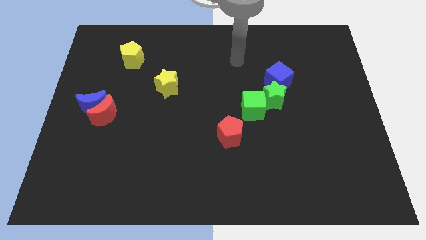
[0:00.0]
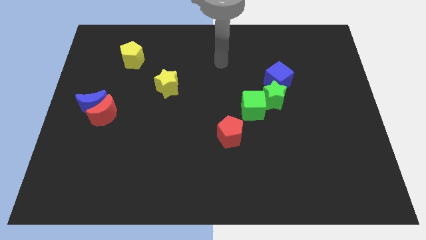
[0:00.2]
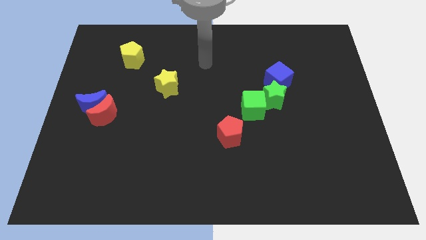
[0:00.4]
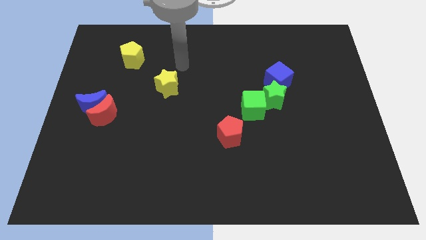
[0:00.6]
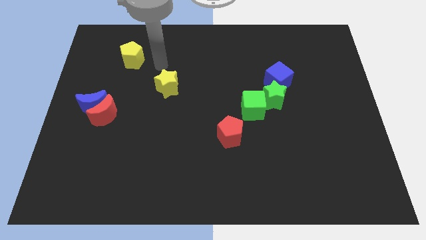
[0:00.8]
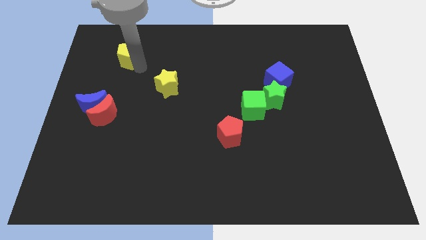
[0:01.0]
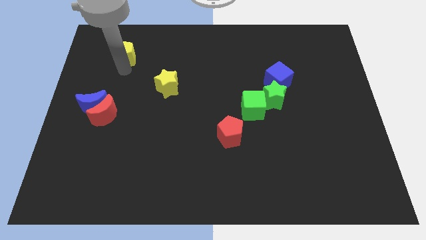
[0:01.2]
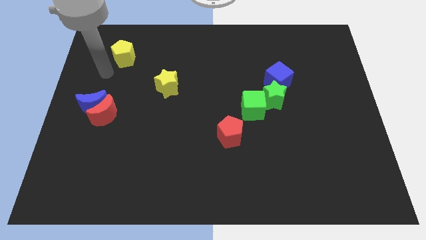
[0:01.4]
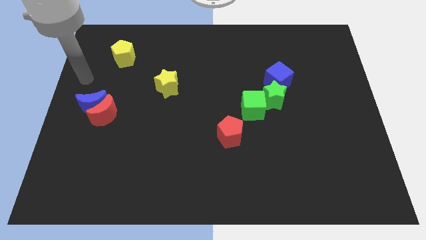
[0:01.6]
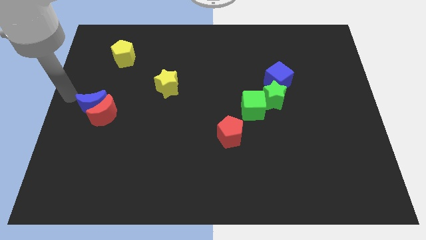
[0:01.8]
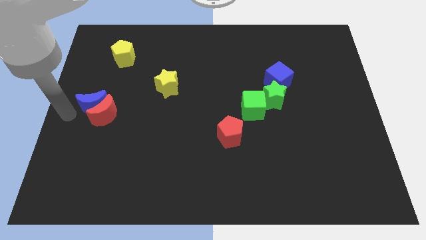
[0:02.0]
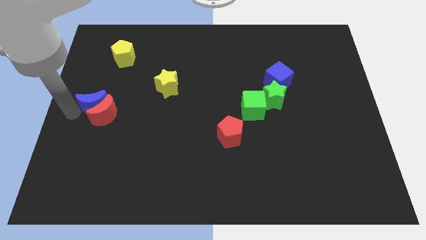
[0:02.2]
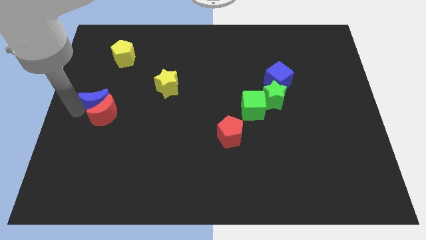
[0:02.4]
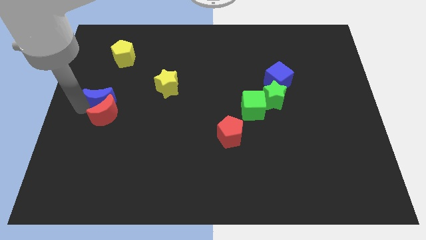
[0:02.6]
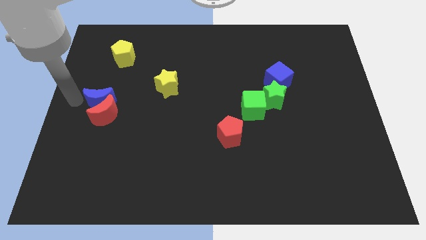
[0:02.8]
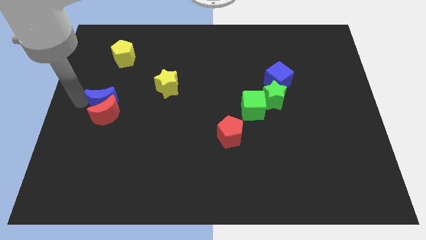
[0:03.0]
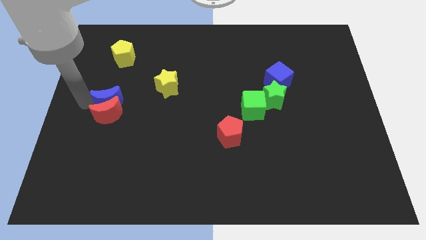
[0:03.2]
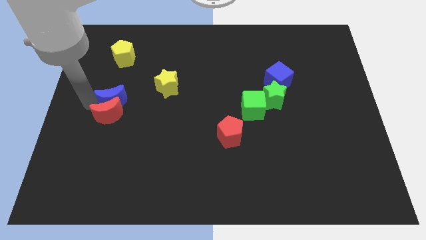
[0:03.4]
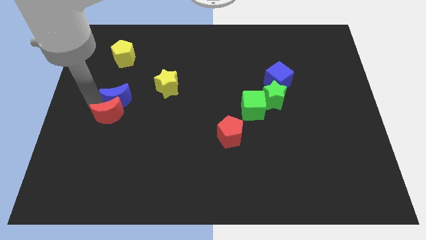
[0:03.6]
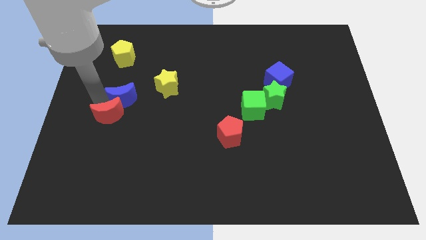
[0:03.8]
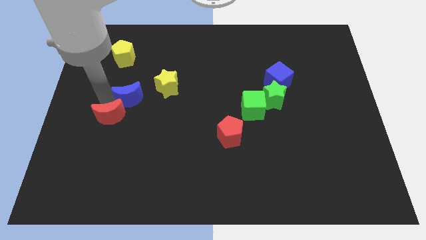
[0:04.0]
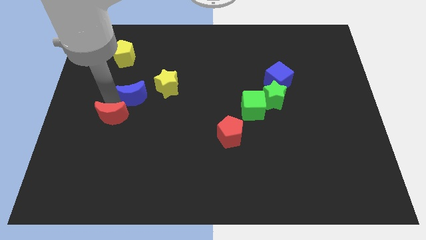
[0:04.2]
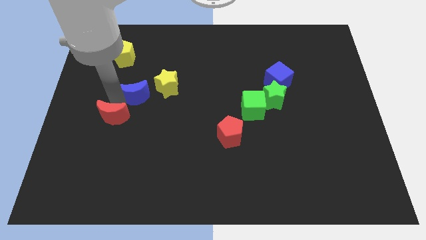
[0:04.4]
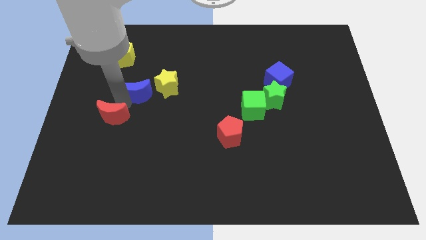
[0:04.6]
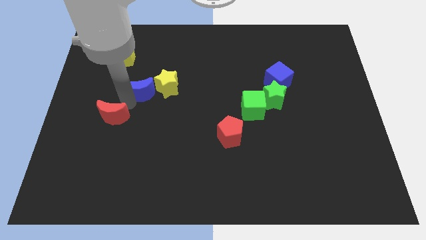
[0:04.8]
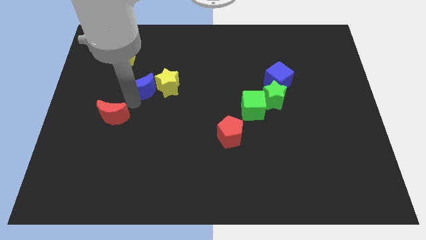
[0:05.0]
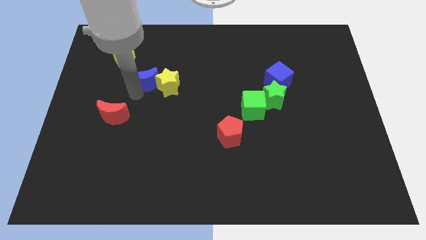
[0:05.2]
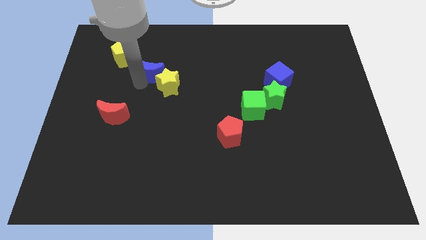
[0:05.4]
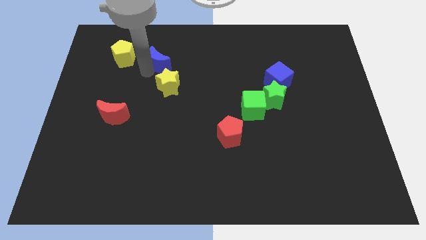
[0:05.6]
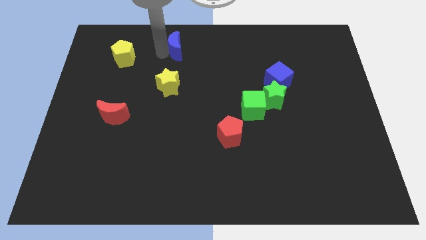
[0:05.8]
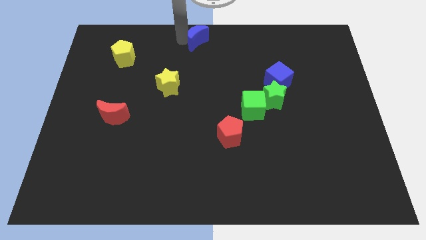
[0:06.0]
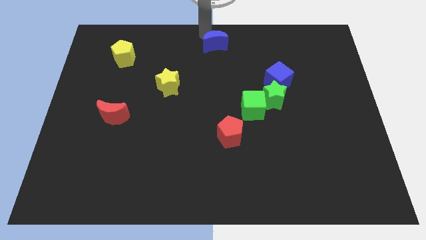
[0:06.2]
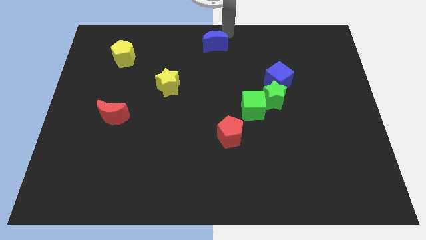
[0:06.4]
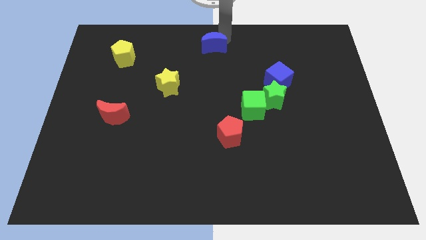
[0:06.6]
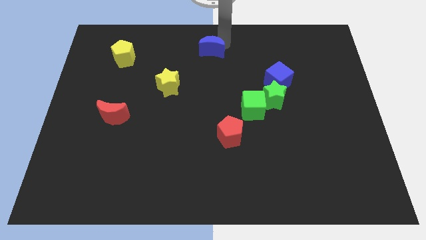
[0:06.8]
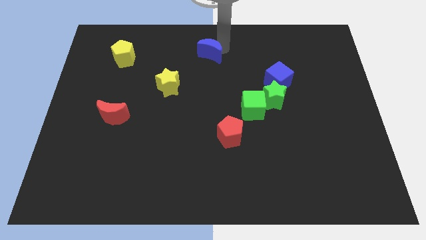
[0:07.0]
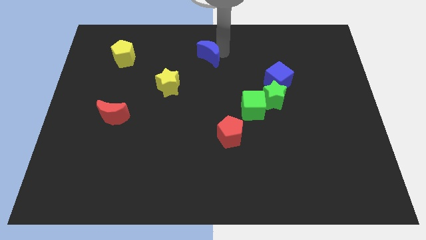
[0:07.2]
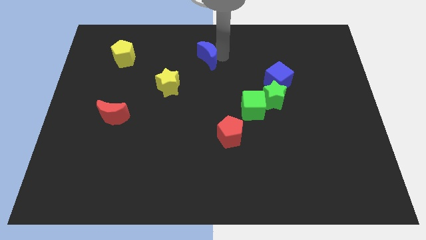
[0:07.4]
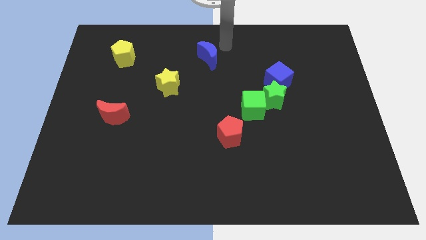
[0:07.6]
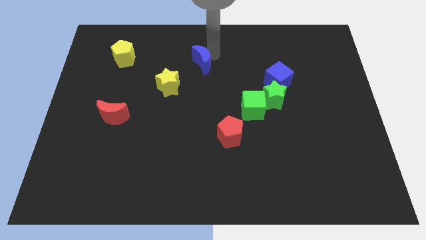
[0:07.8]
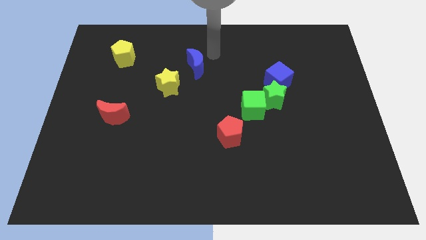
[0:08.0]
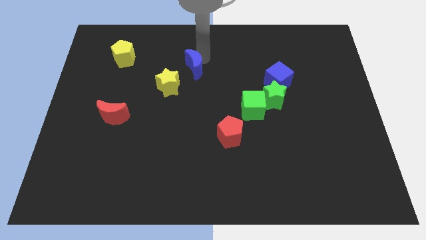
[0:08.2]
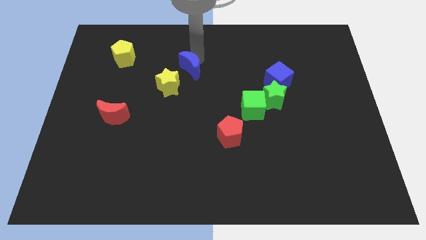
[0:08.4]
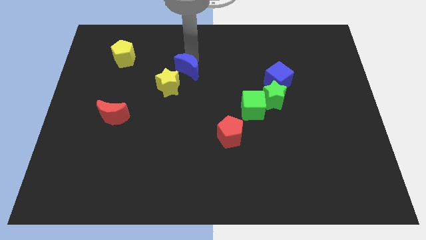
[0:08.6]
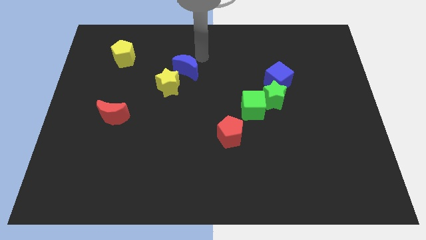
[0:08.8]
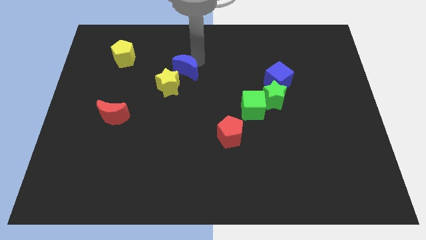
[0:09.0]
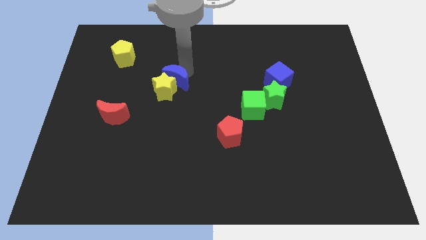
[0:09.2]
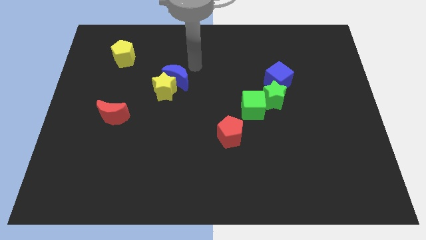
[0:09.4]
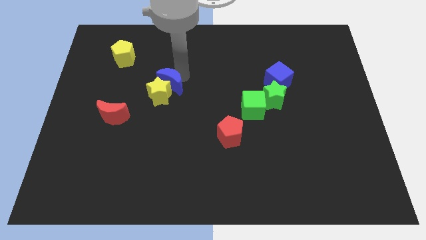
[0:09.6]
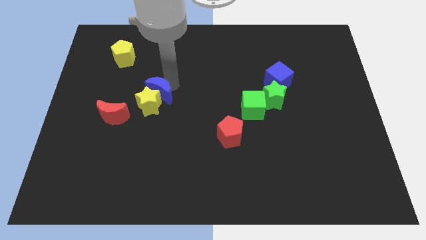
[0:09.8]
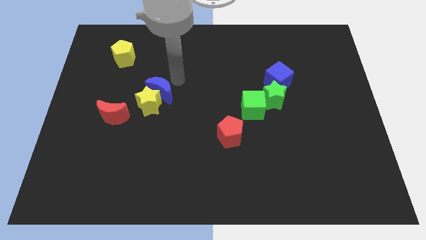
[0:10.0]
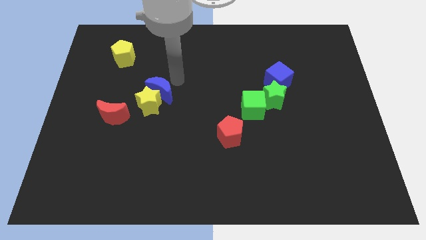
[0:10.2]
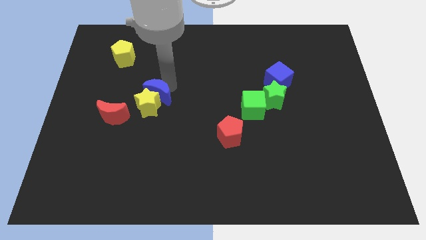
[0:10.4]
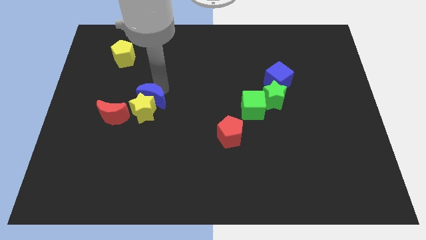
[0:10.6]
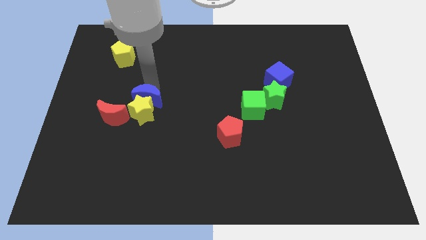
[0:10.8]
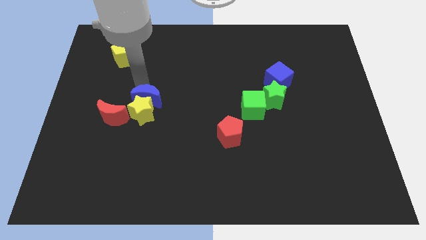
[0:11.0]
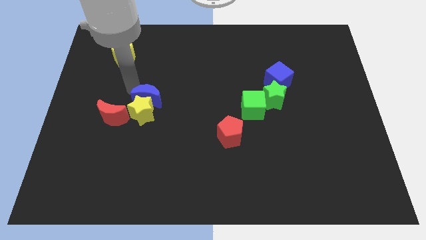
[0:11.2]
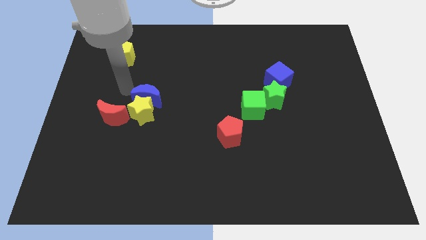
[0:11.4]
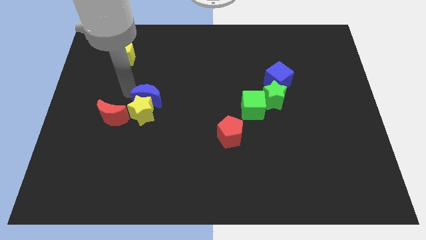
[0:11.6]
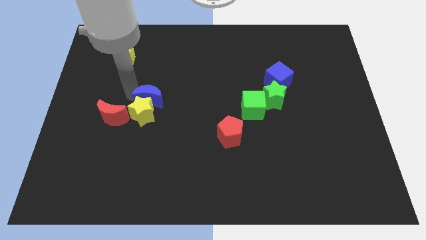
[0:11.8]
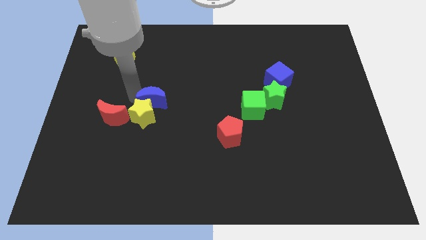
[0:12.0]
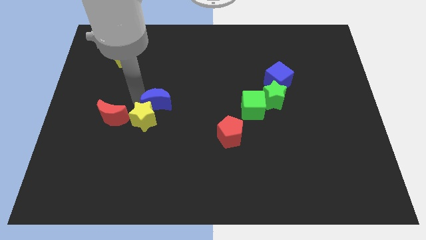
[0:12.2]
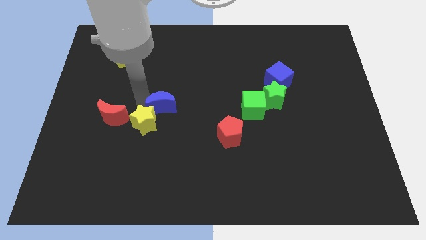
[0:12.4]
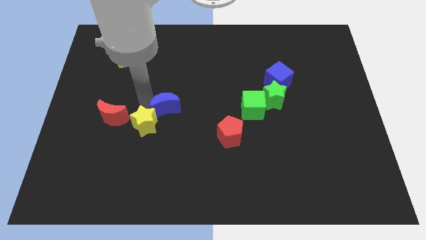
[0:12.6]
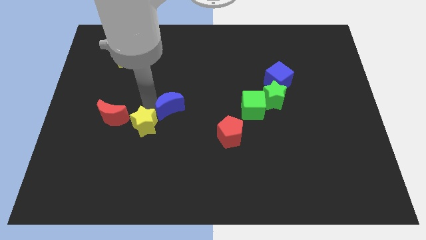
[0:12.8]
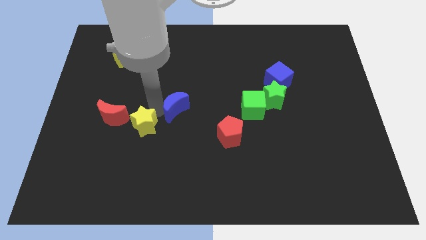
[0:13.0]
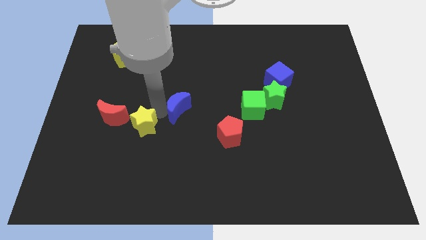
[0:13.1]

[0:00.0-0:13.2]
slide the blue moon right

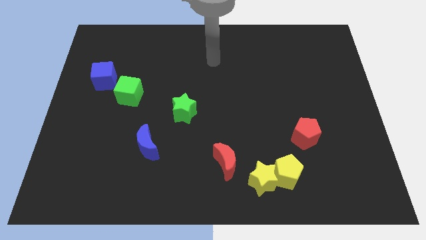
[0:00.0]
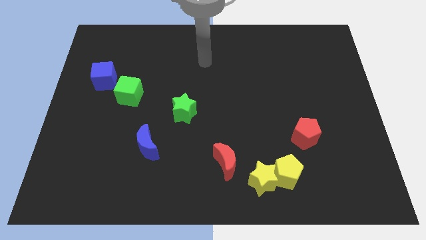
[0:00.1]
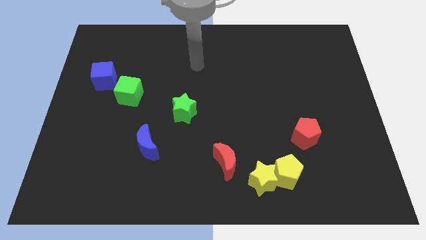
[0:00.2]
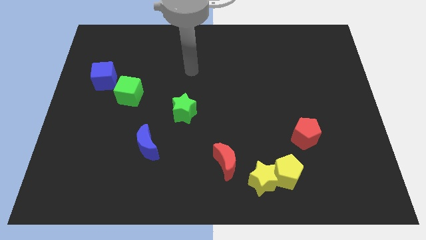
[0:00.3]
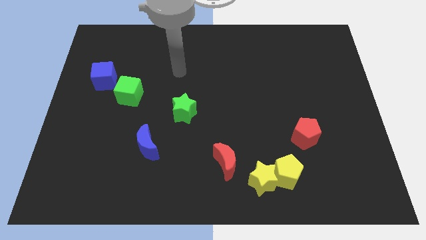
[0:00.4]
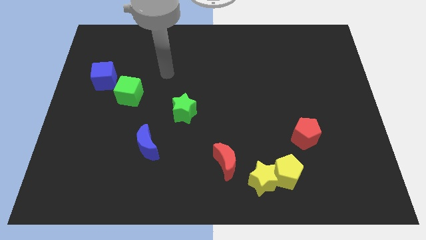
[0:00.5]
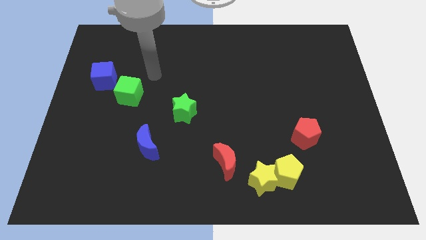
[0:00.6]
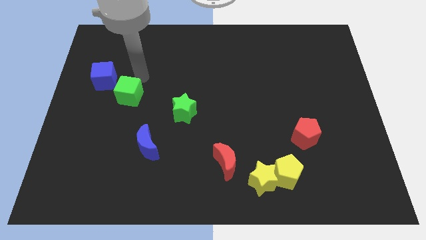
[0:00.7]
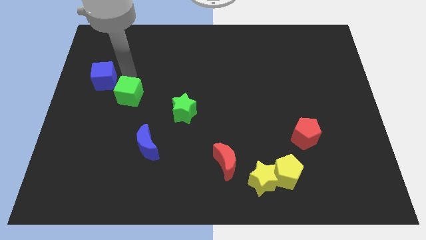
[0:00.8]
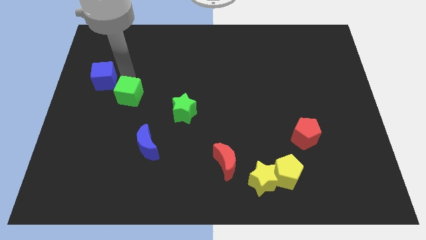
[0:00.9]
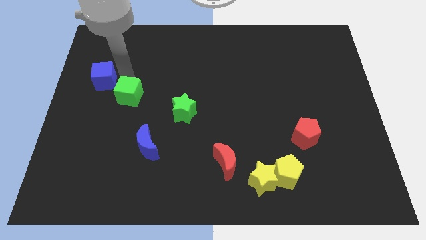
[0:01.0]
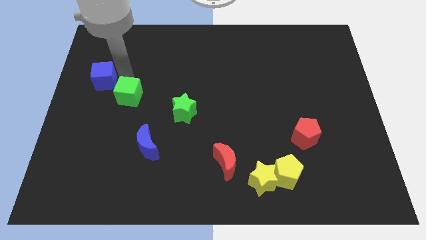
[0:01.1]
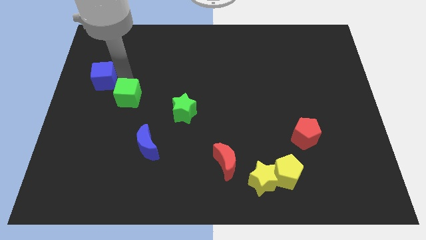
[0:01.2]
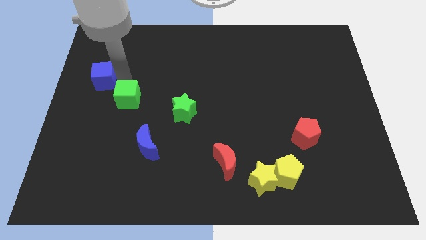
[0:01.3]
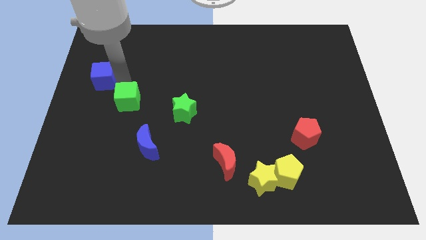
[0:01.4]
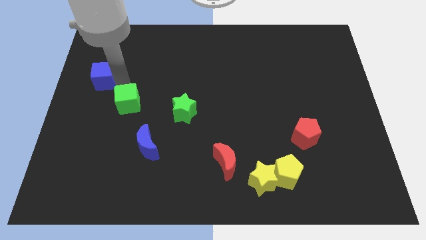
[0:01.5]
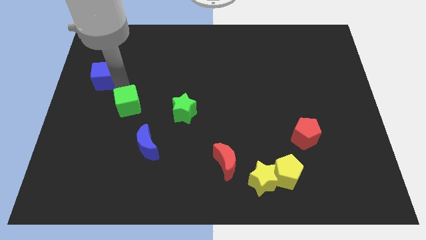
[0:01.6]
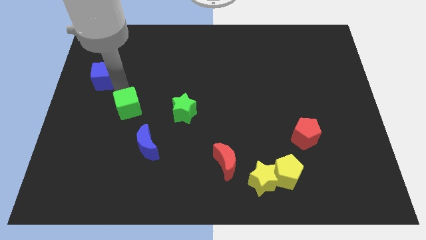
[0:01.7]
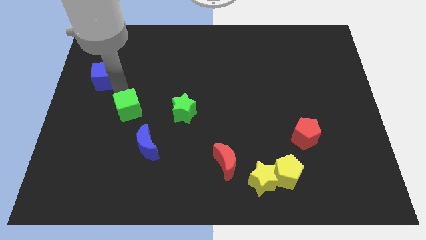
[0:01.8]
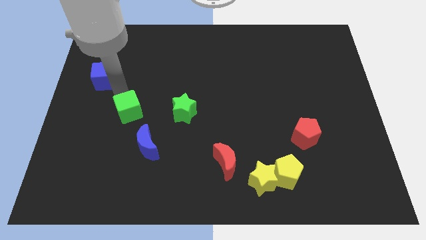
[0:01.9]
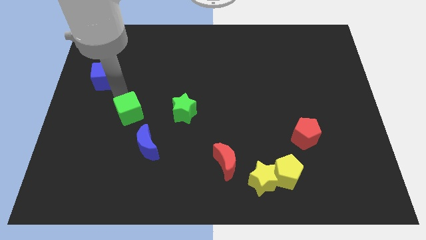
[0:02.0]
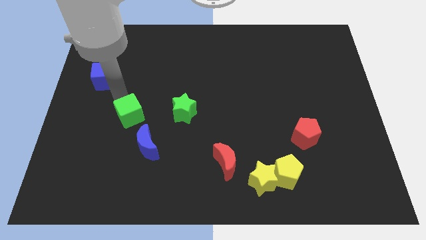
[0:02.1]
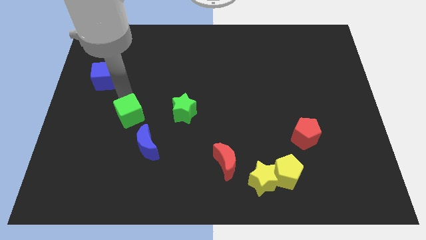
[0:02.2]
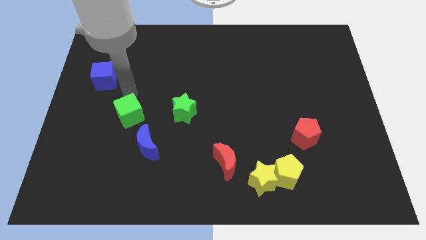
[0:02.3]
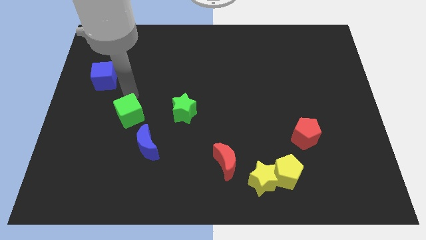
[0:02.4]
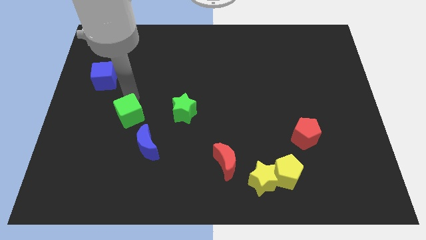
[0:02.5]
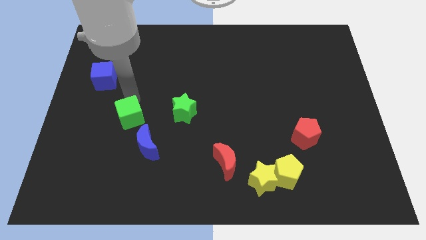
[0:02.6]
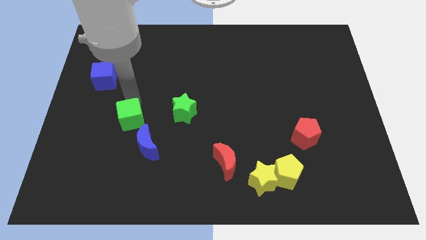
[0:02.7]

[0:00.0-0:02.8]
push the green cube downwards a little bit
